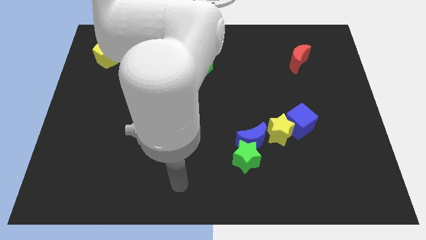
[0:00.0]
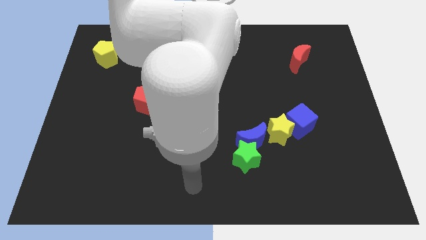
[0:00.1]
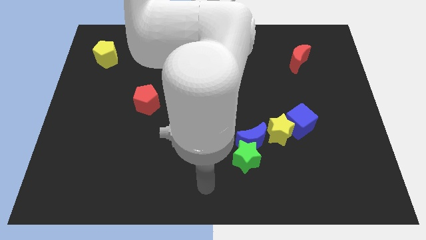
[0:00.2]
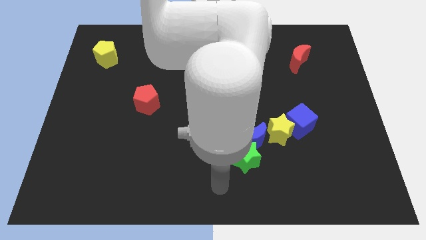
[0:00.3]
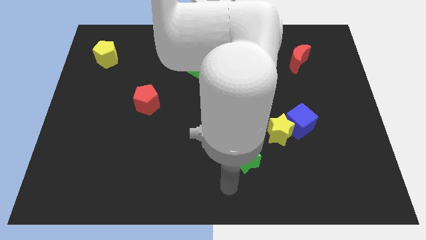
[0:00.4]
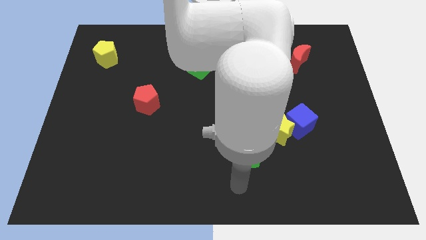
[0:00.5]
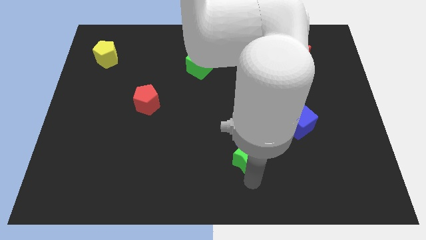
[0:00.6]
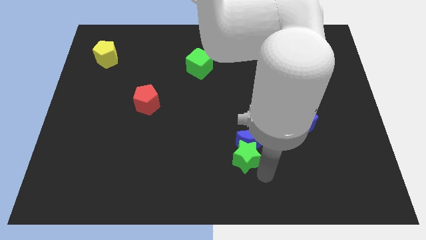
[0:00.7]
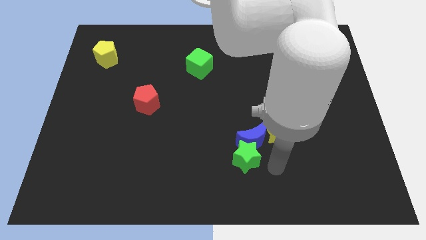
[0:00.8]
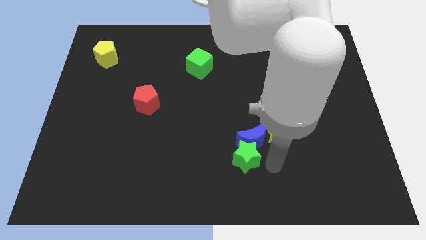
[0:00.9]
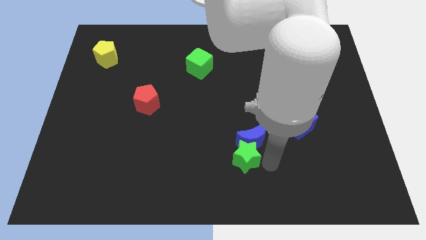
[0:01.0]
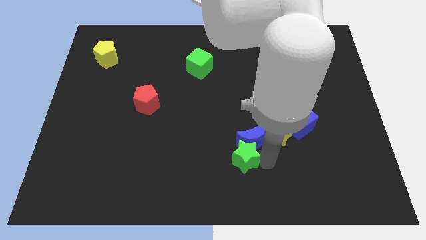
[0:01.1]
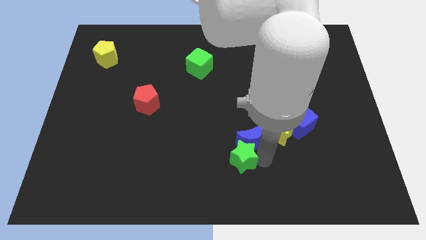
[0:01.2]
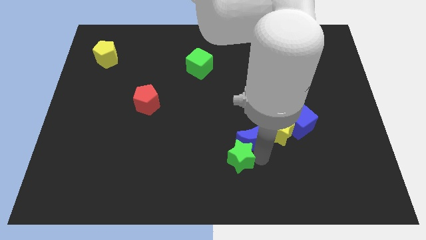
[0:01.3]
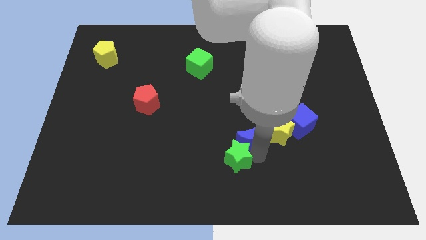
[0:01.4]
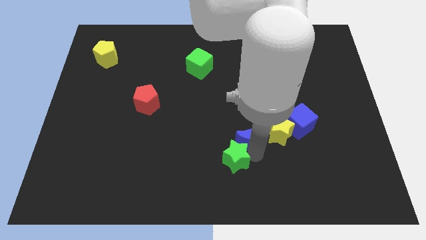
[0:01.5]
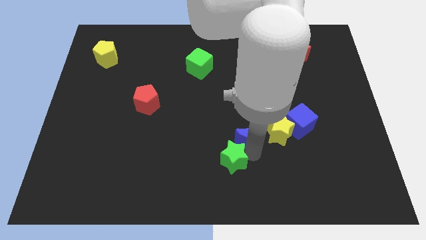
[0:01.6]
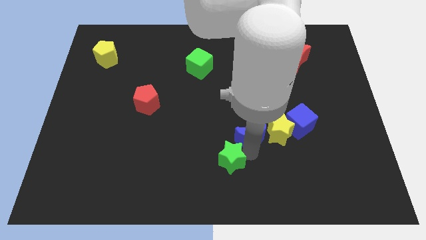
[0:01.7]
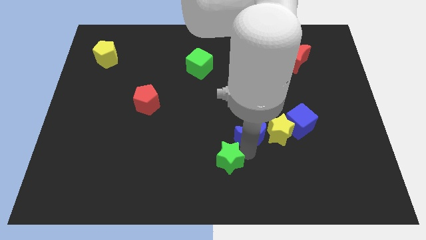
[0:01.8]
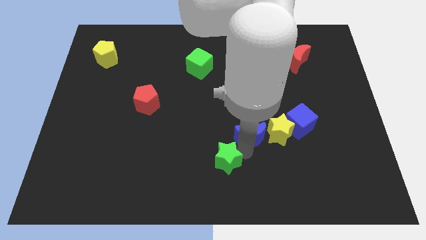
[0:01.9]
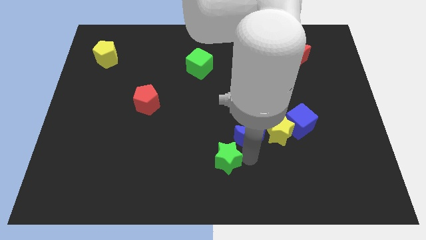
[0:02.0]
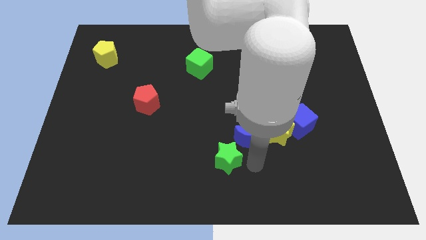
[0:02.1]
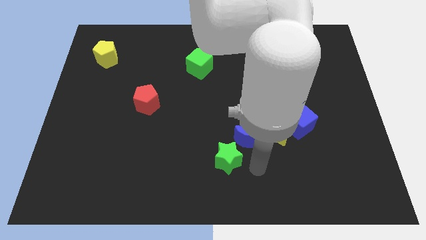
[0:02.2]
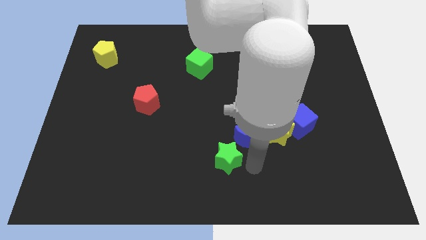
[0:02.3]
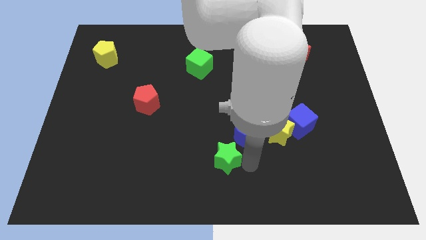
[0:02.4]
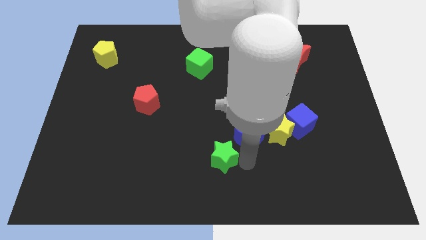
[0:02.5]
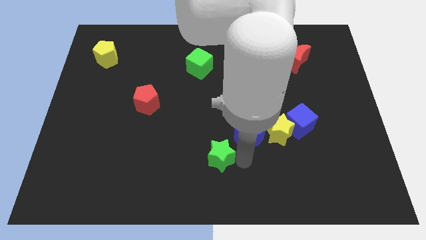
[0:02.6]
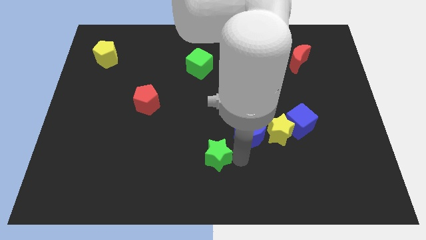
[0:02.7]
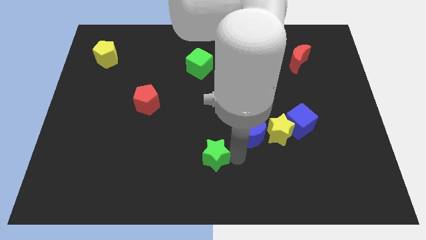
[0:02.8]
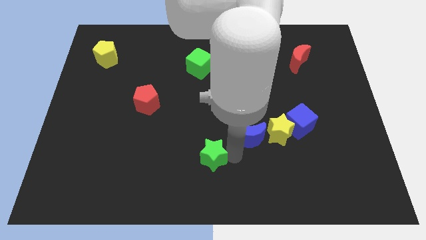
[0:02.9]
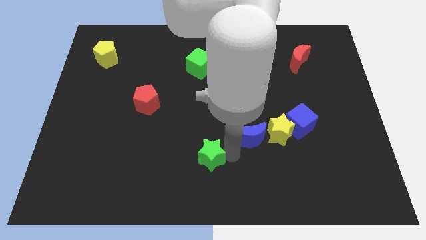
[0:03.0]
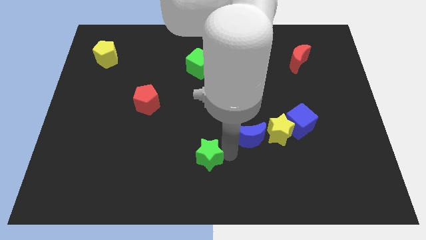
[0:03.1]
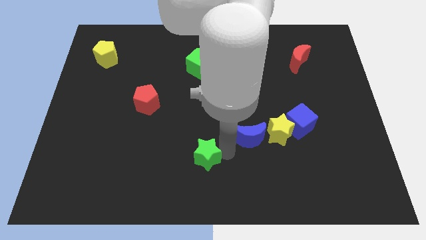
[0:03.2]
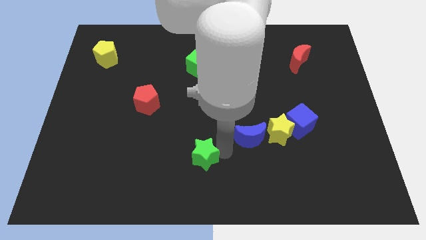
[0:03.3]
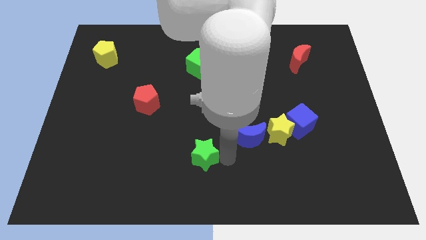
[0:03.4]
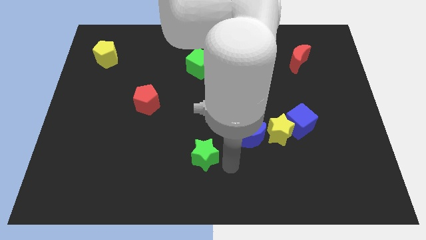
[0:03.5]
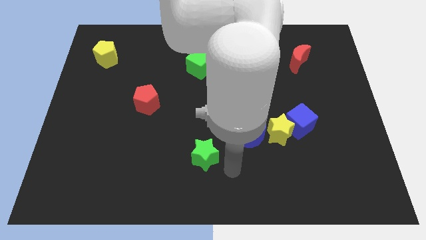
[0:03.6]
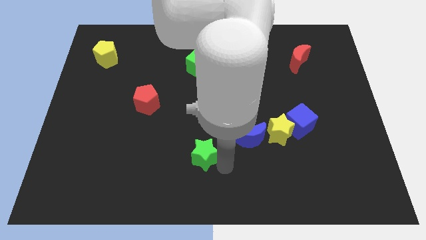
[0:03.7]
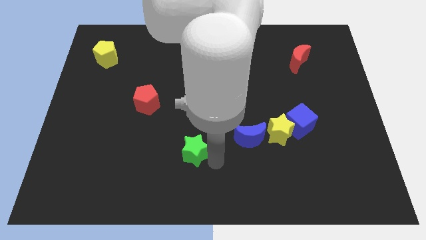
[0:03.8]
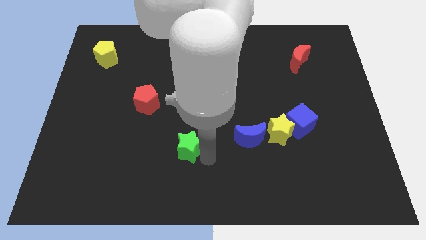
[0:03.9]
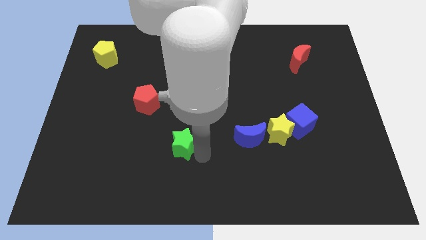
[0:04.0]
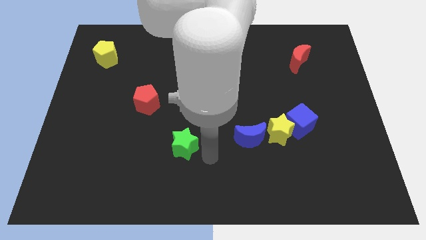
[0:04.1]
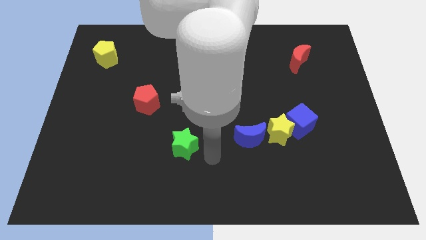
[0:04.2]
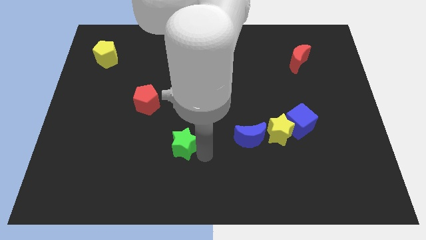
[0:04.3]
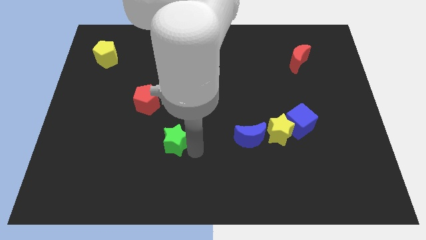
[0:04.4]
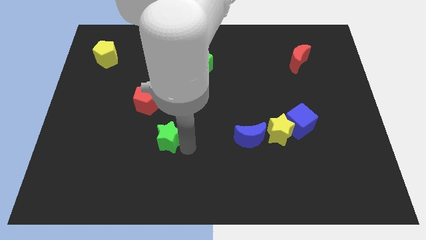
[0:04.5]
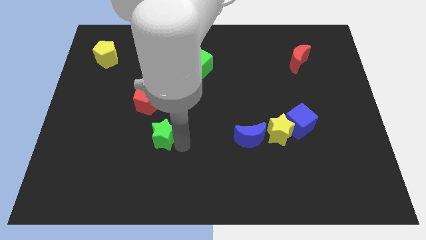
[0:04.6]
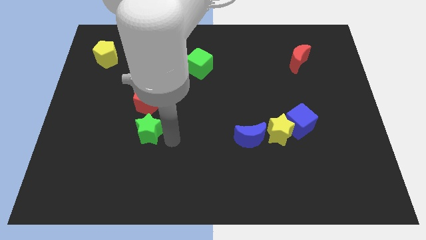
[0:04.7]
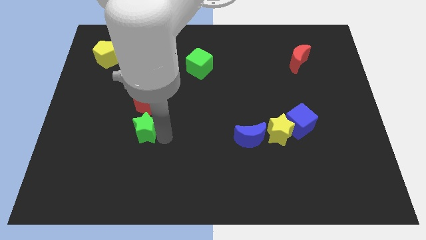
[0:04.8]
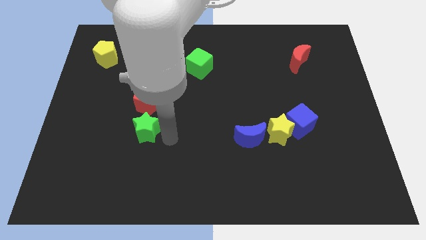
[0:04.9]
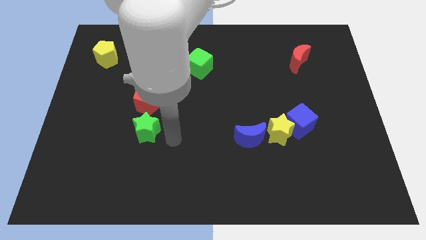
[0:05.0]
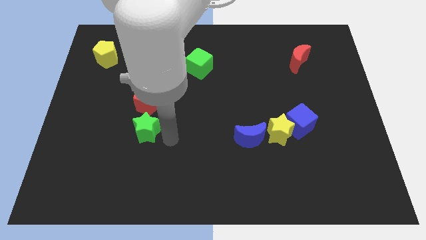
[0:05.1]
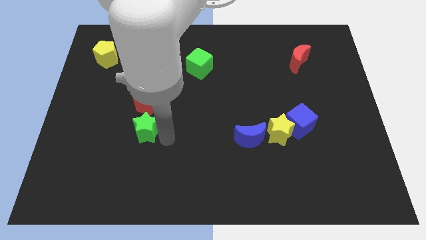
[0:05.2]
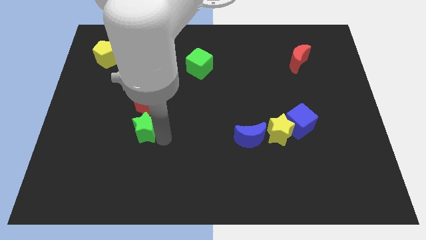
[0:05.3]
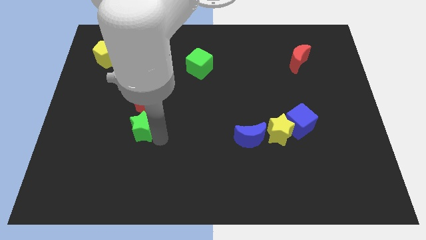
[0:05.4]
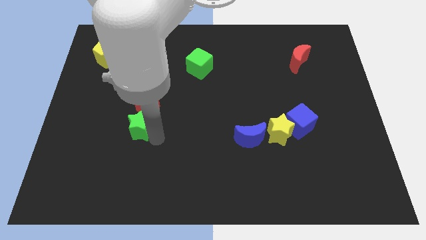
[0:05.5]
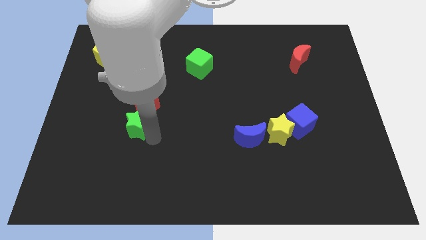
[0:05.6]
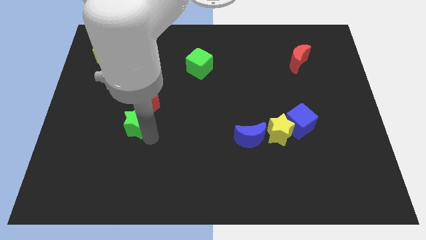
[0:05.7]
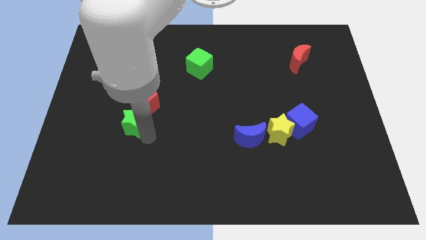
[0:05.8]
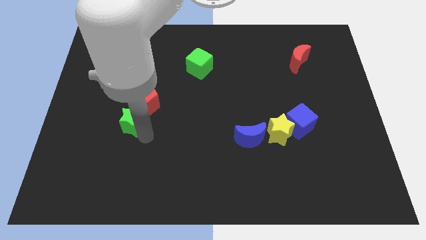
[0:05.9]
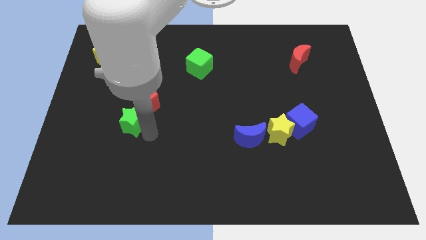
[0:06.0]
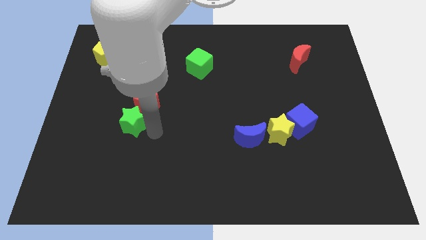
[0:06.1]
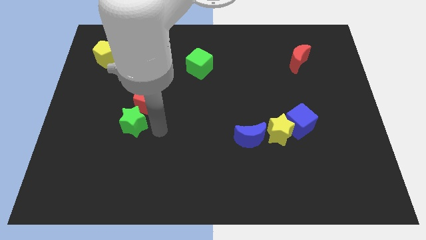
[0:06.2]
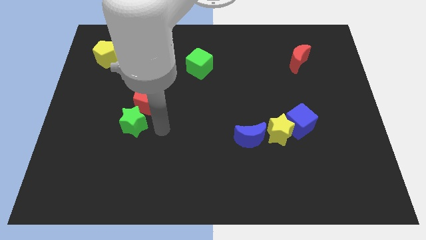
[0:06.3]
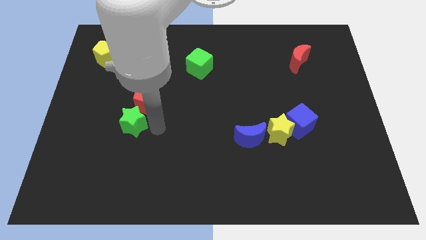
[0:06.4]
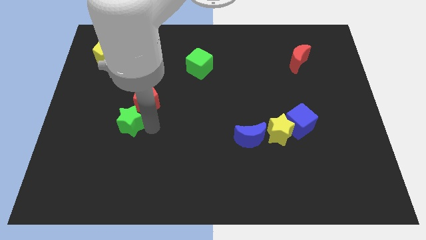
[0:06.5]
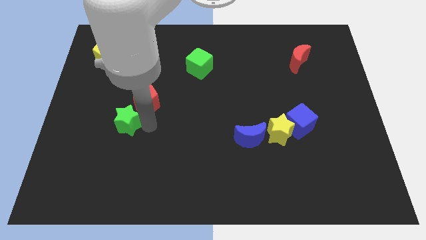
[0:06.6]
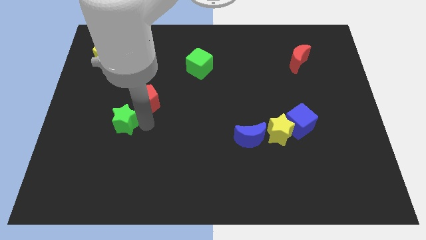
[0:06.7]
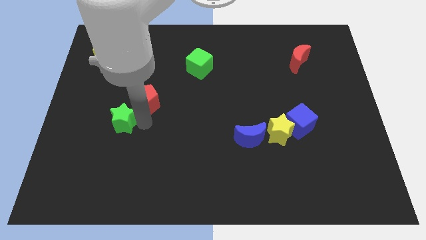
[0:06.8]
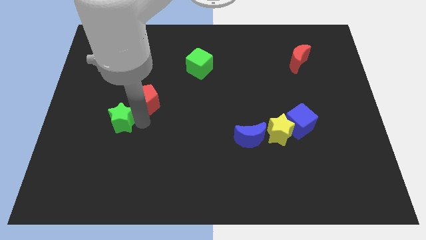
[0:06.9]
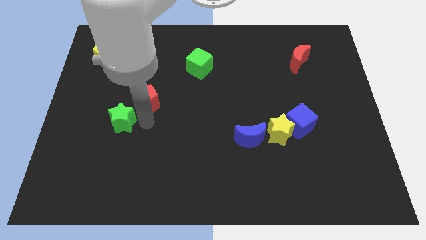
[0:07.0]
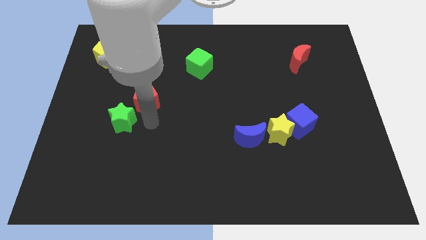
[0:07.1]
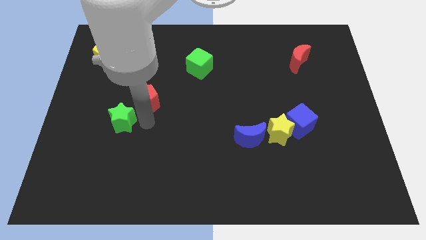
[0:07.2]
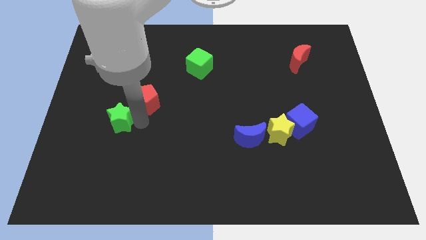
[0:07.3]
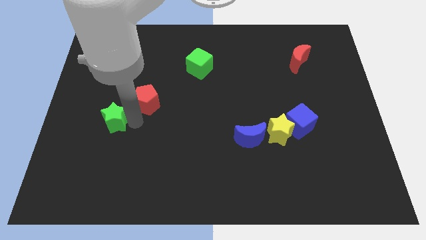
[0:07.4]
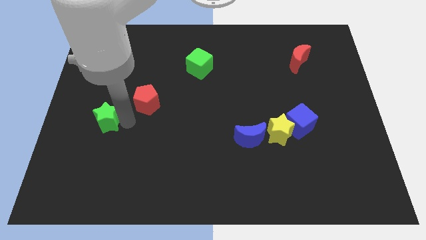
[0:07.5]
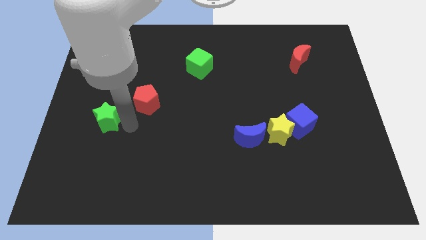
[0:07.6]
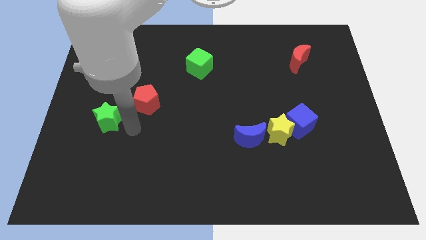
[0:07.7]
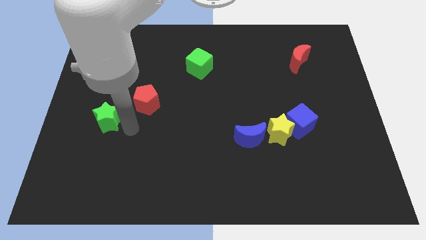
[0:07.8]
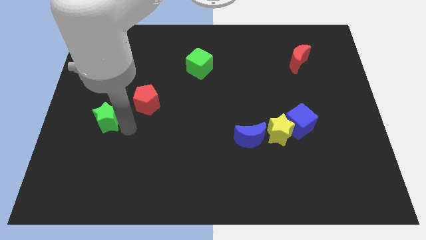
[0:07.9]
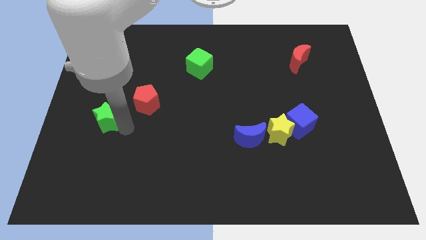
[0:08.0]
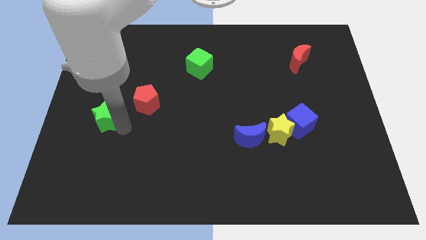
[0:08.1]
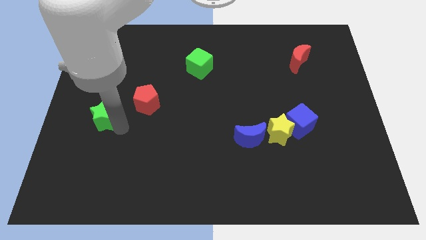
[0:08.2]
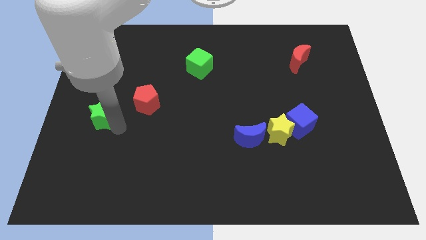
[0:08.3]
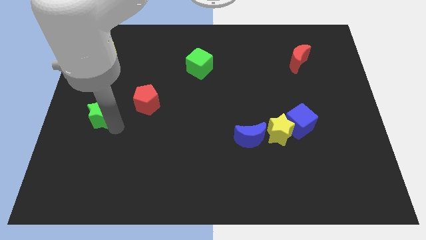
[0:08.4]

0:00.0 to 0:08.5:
put the green star to the center left
